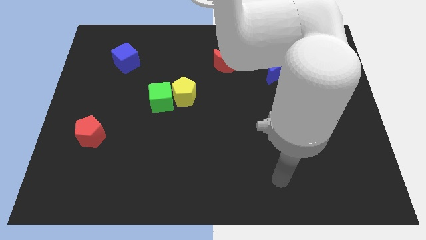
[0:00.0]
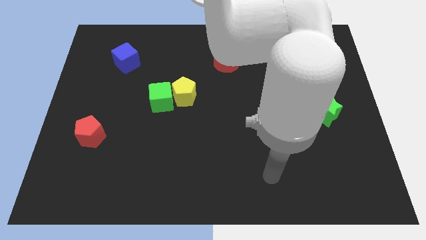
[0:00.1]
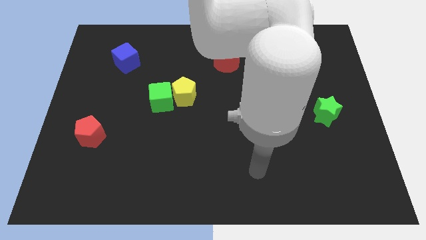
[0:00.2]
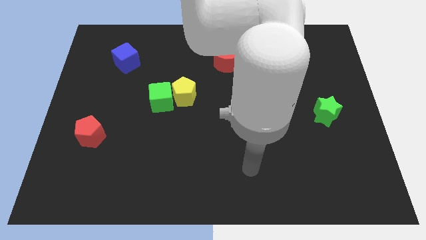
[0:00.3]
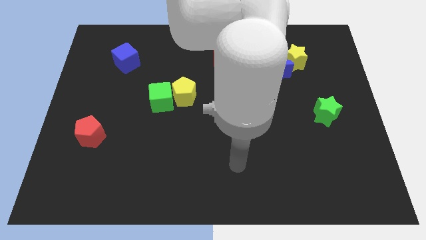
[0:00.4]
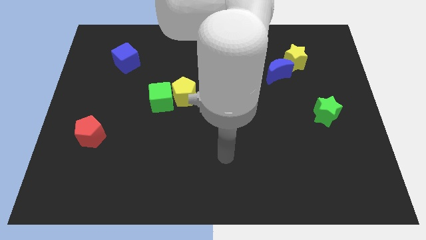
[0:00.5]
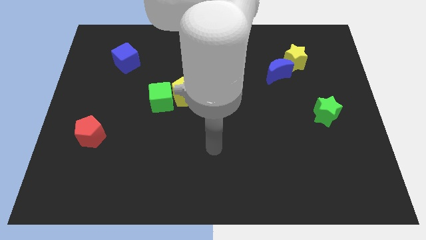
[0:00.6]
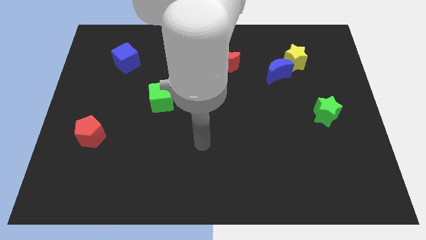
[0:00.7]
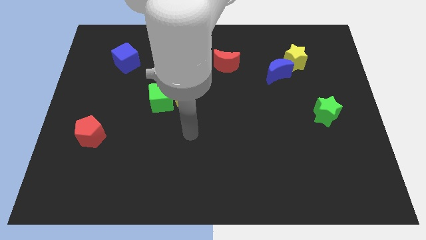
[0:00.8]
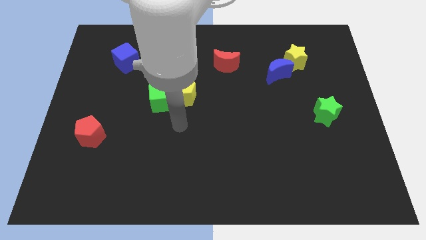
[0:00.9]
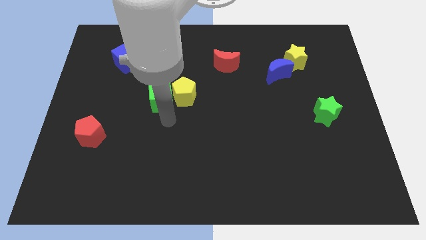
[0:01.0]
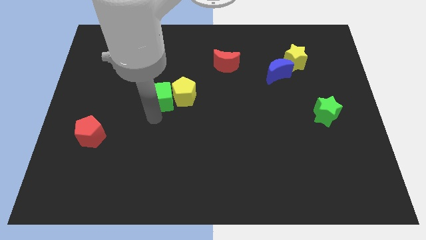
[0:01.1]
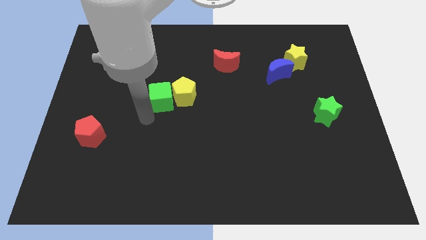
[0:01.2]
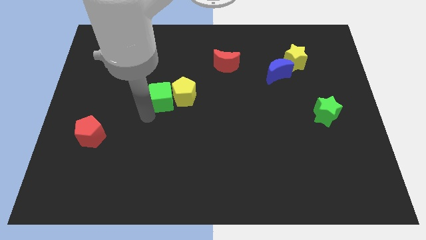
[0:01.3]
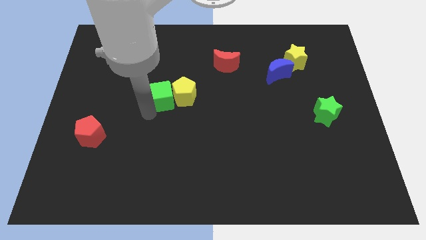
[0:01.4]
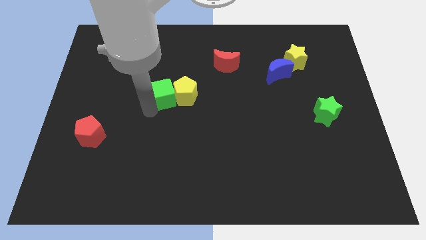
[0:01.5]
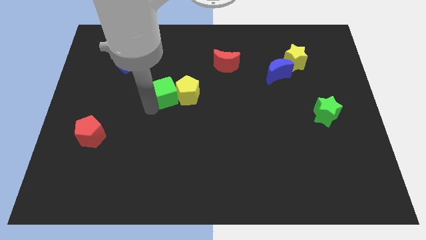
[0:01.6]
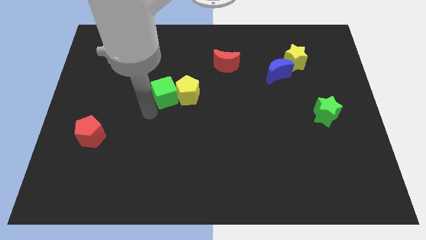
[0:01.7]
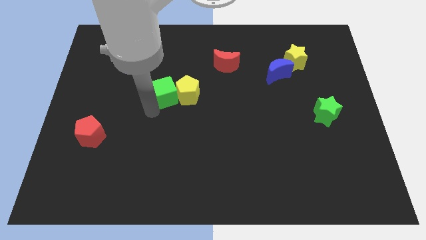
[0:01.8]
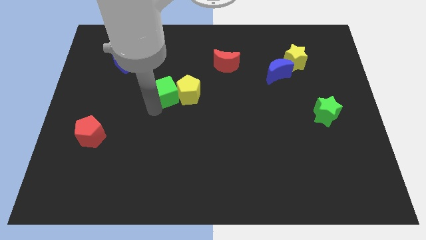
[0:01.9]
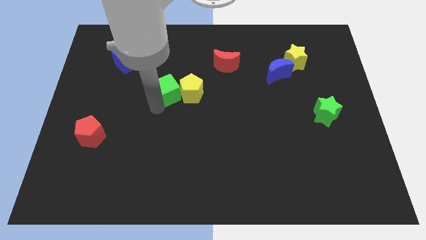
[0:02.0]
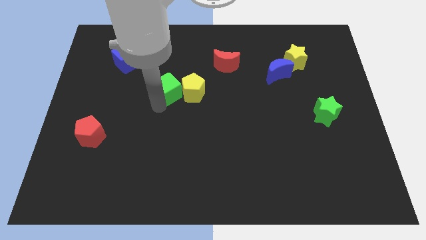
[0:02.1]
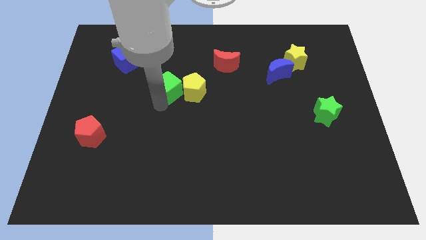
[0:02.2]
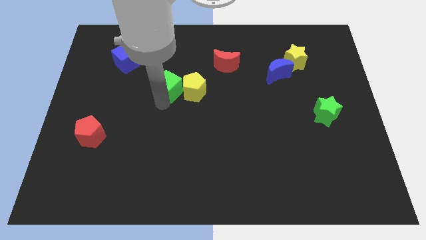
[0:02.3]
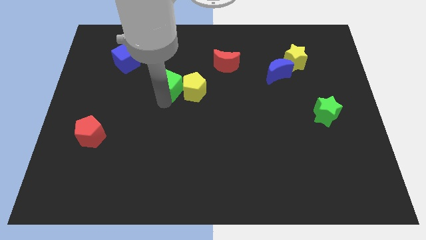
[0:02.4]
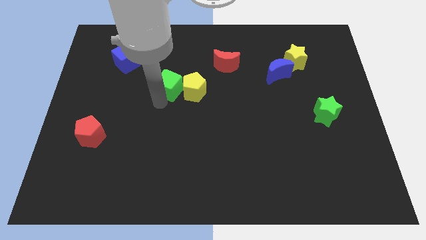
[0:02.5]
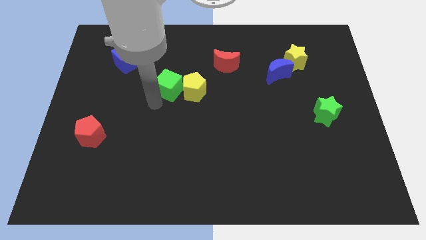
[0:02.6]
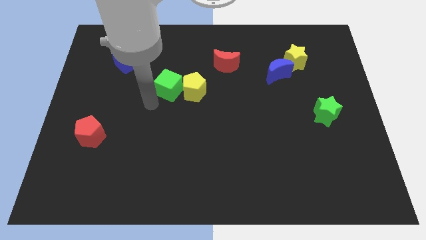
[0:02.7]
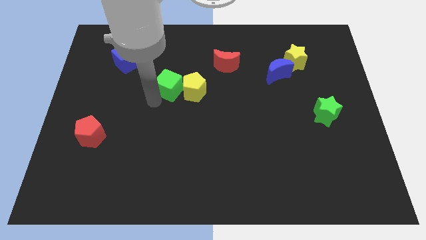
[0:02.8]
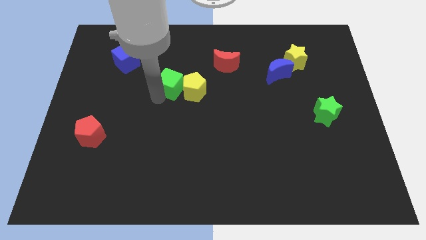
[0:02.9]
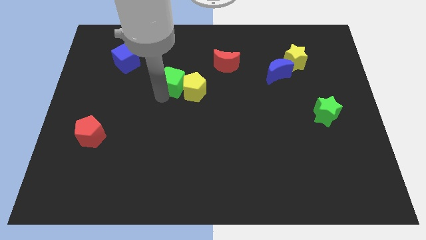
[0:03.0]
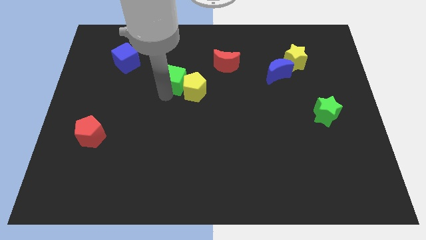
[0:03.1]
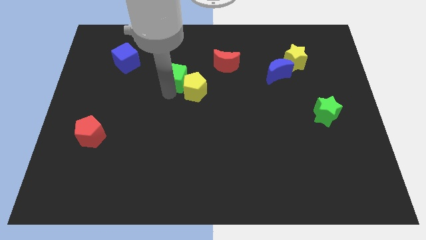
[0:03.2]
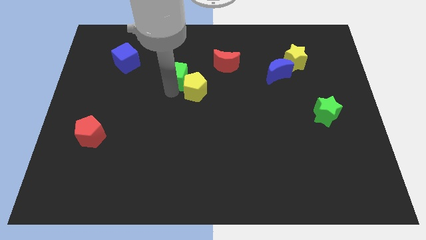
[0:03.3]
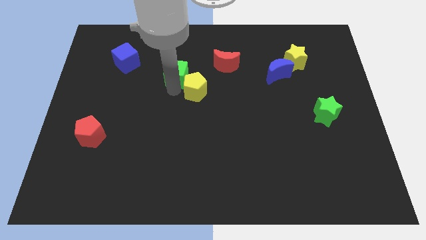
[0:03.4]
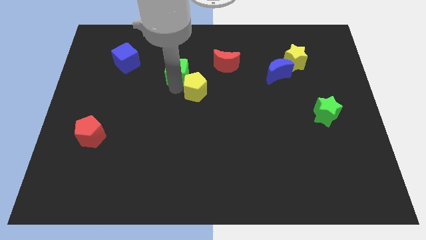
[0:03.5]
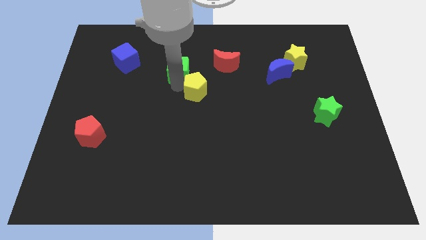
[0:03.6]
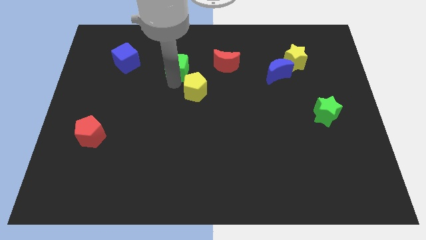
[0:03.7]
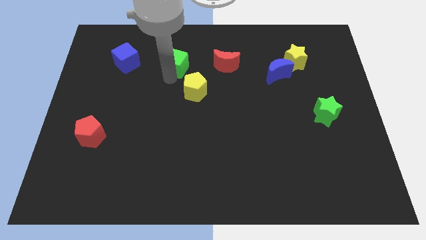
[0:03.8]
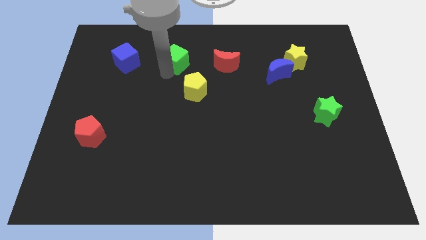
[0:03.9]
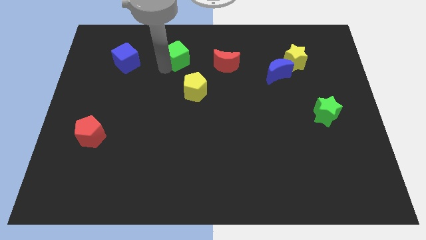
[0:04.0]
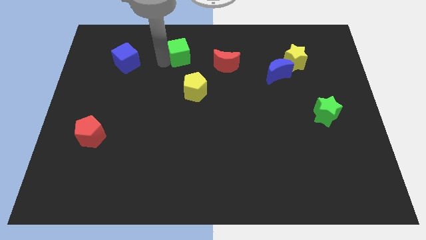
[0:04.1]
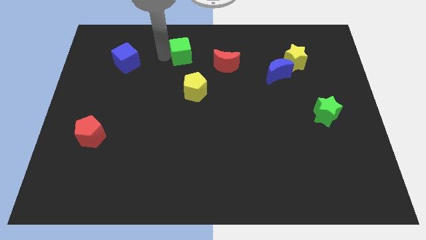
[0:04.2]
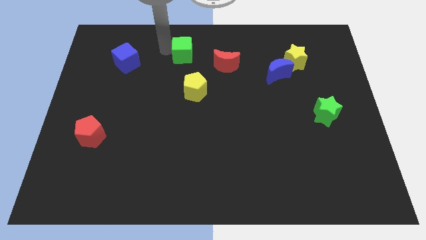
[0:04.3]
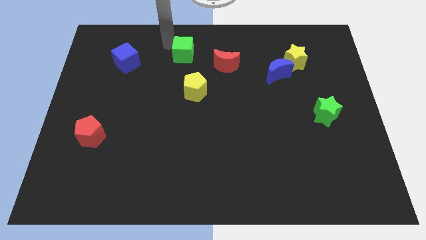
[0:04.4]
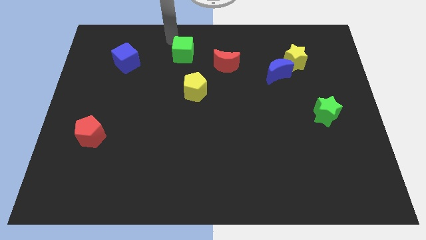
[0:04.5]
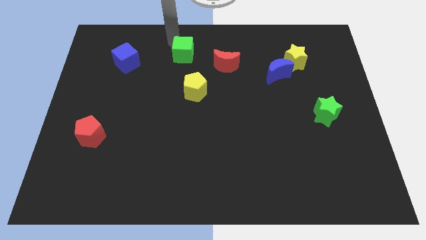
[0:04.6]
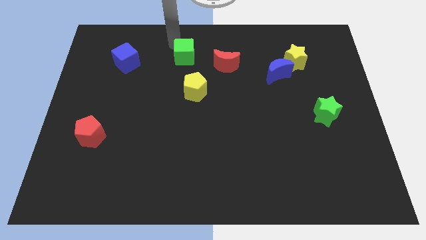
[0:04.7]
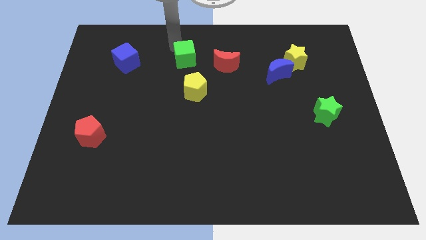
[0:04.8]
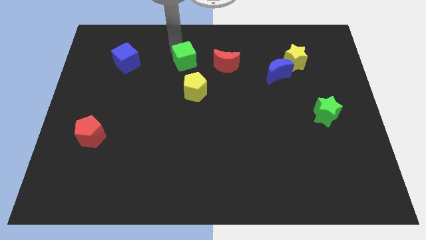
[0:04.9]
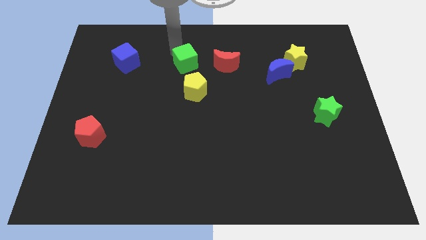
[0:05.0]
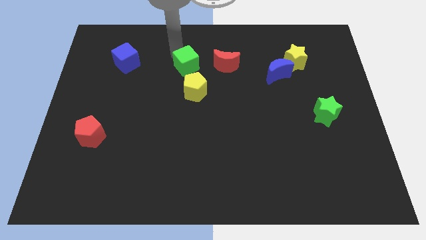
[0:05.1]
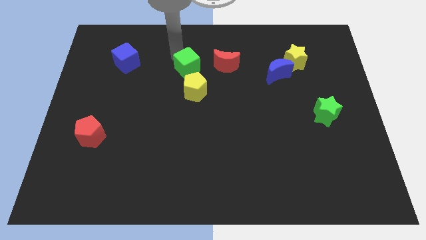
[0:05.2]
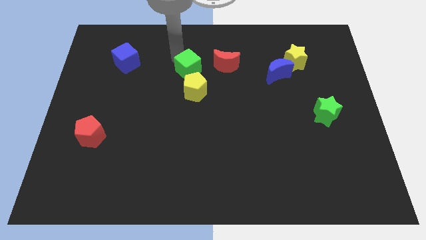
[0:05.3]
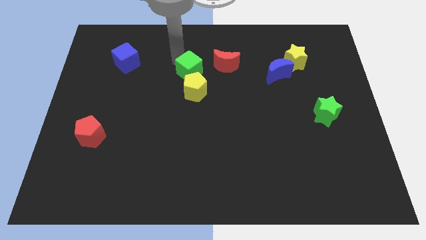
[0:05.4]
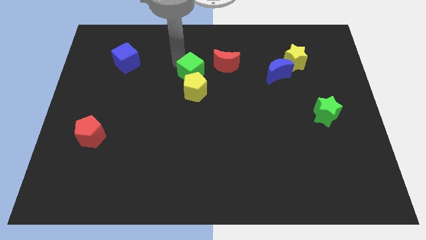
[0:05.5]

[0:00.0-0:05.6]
move the green cube diagonally down and to the left of the red moon

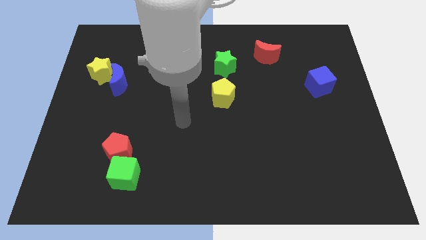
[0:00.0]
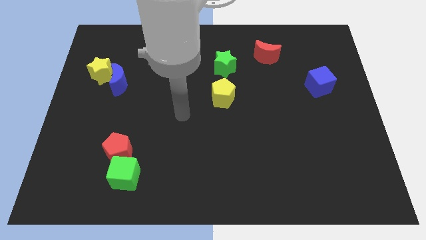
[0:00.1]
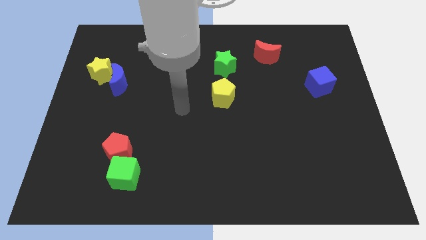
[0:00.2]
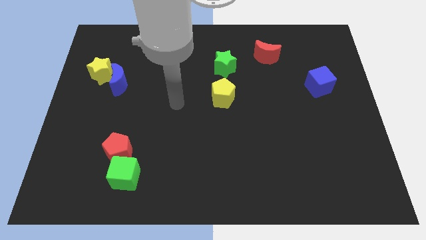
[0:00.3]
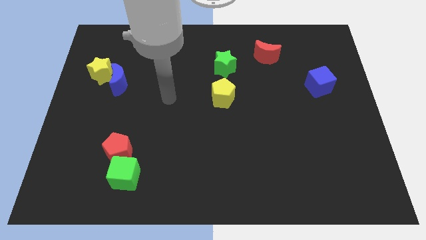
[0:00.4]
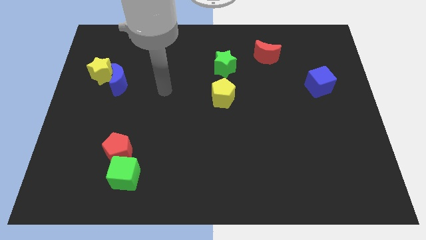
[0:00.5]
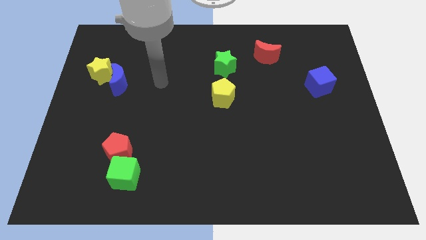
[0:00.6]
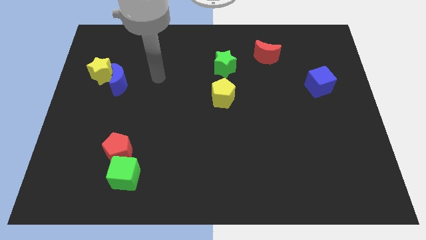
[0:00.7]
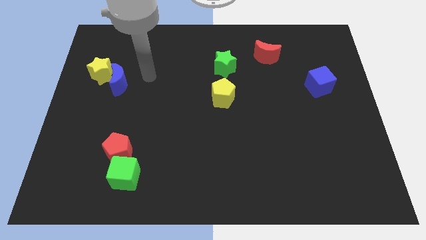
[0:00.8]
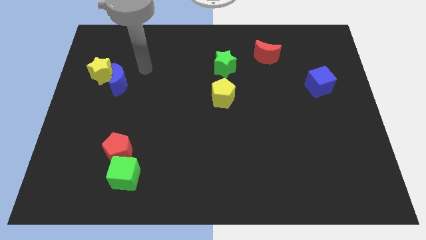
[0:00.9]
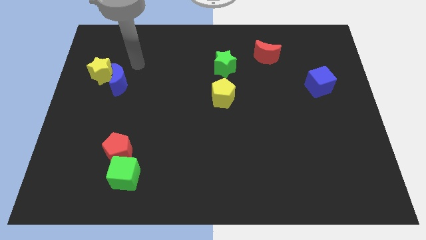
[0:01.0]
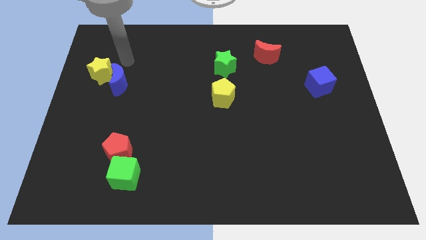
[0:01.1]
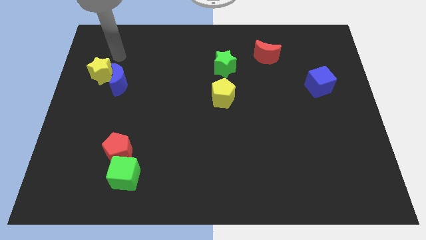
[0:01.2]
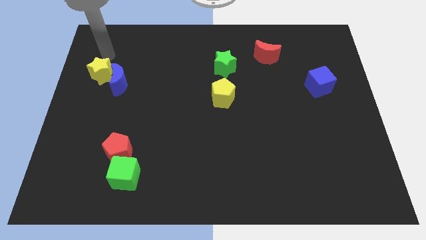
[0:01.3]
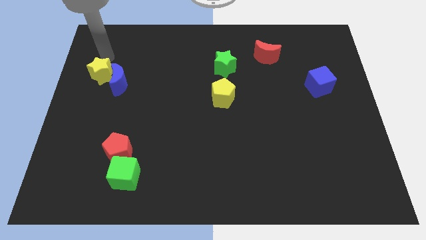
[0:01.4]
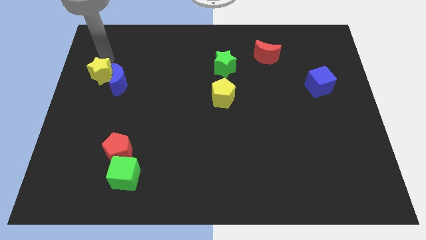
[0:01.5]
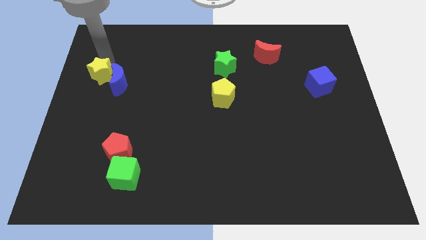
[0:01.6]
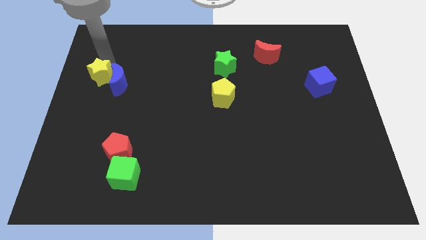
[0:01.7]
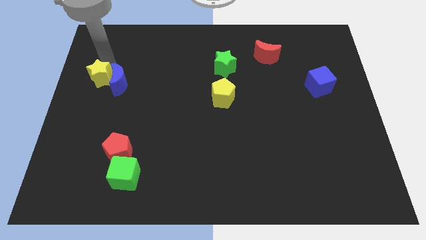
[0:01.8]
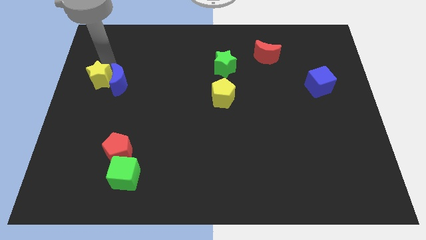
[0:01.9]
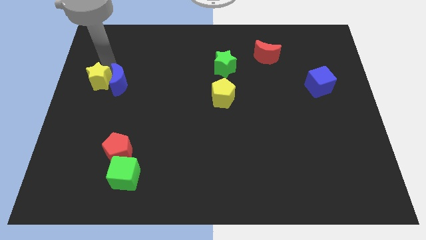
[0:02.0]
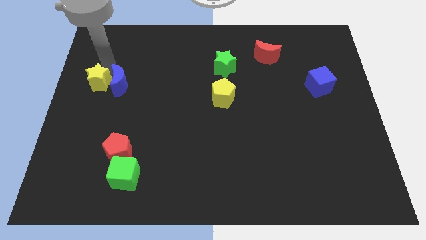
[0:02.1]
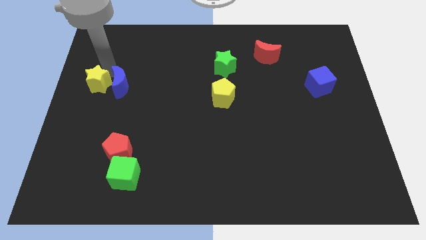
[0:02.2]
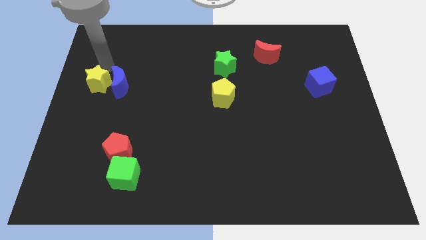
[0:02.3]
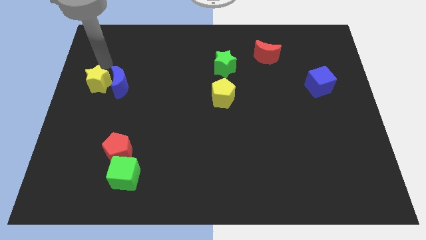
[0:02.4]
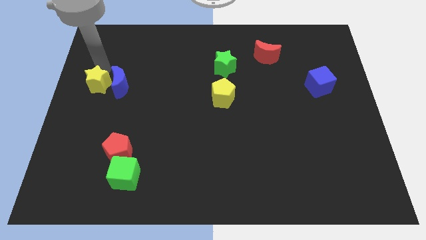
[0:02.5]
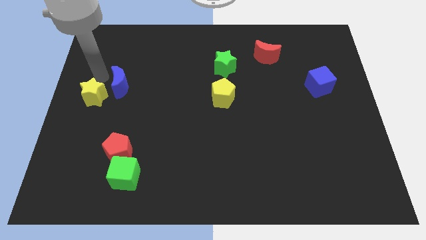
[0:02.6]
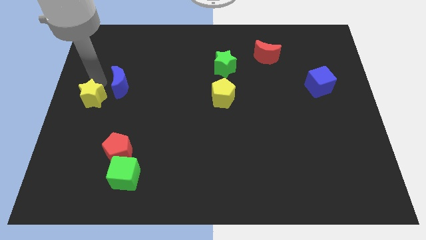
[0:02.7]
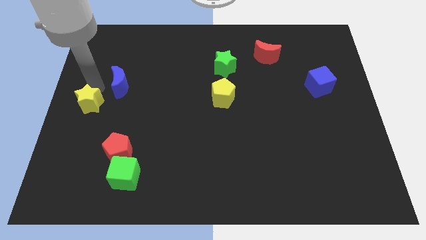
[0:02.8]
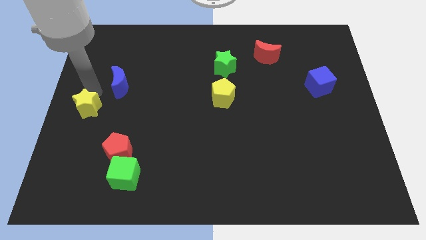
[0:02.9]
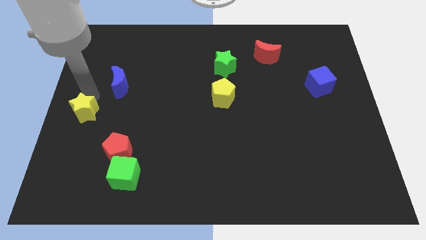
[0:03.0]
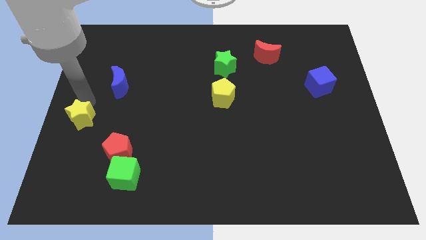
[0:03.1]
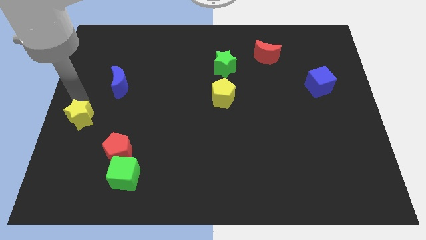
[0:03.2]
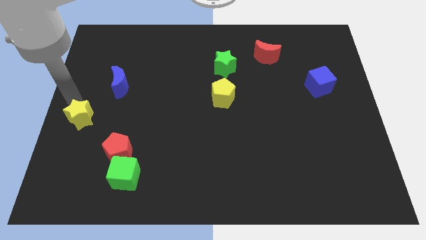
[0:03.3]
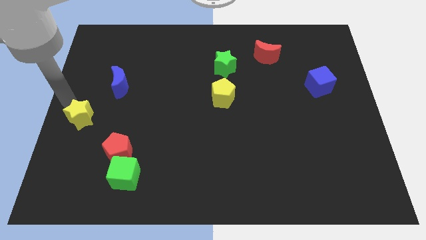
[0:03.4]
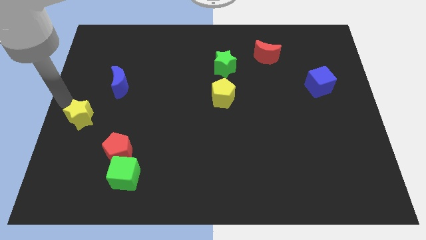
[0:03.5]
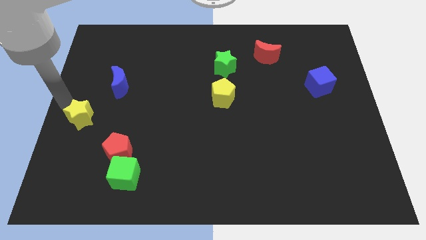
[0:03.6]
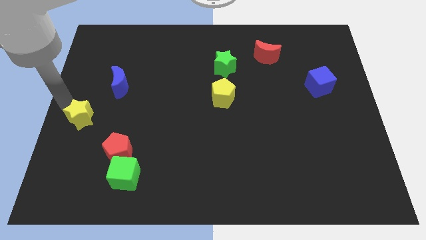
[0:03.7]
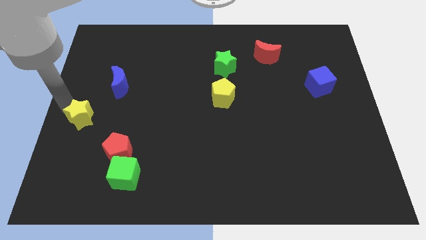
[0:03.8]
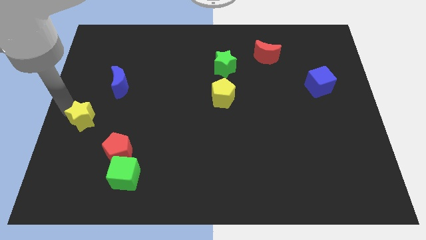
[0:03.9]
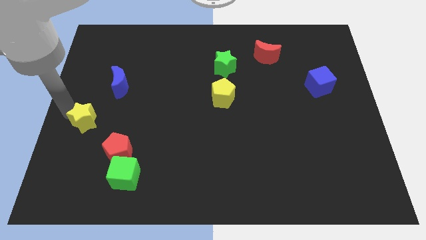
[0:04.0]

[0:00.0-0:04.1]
move the yellow star diagonally up and to the left of the red pentagon
